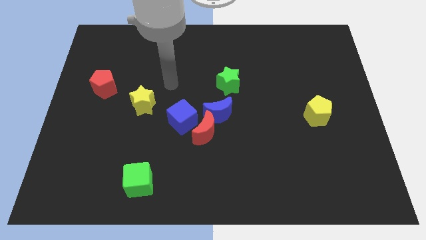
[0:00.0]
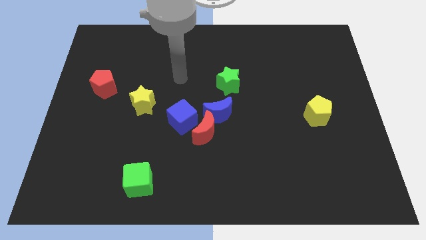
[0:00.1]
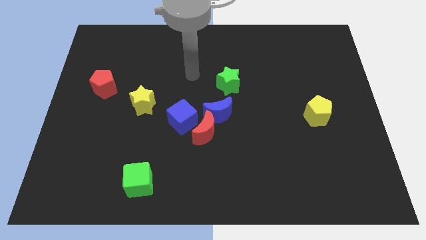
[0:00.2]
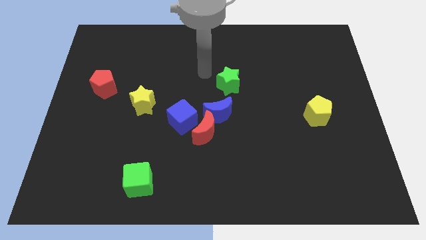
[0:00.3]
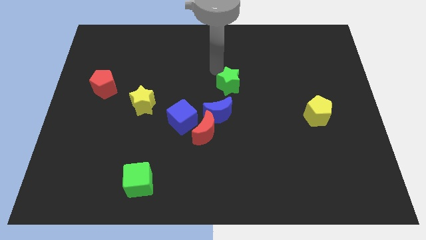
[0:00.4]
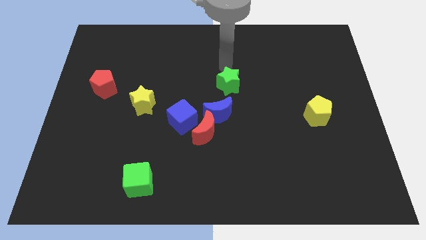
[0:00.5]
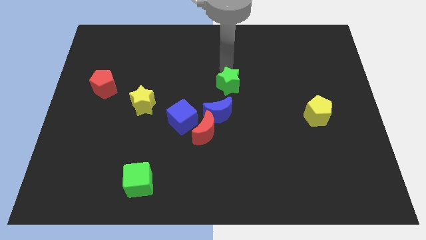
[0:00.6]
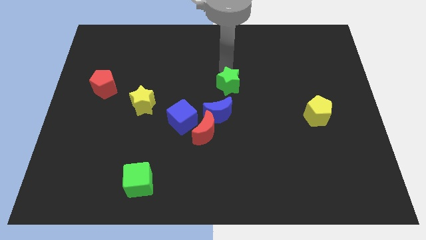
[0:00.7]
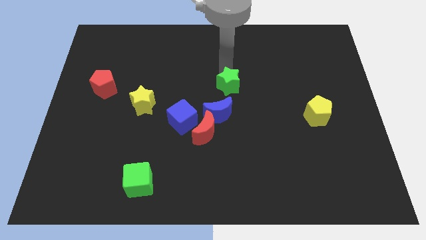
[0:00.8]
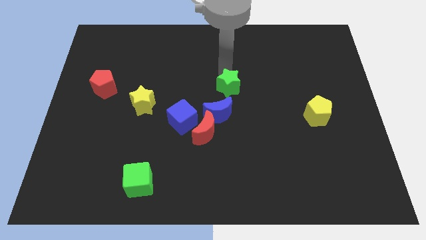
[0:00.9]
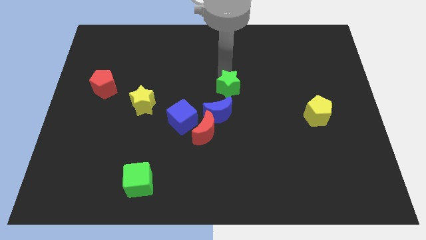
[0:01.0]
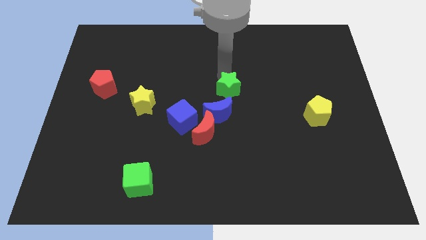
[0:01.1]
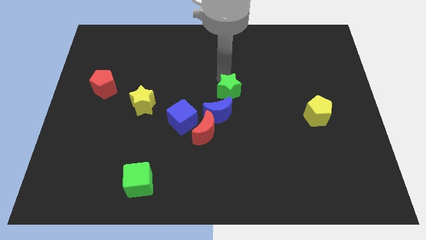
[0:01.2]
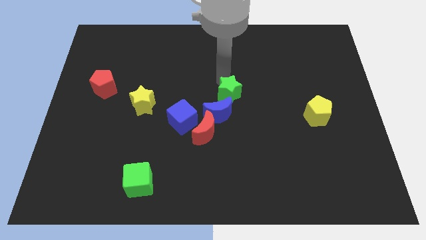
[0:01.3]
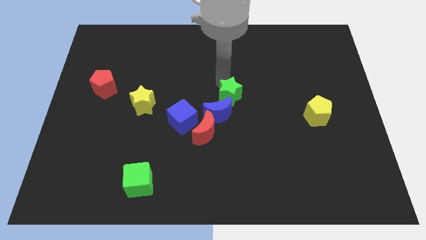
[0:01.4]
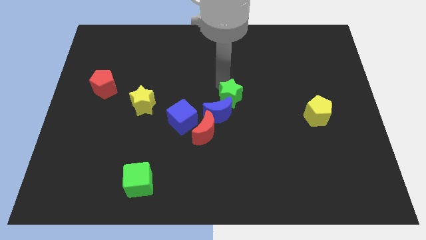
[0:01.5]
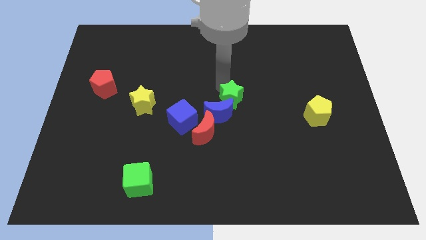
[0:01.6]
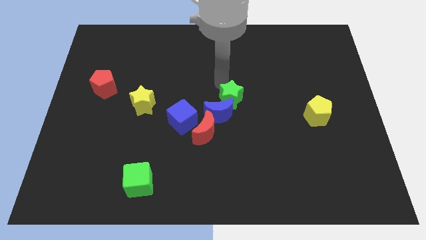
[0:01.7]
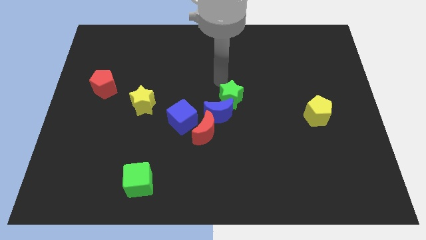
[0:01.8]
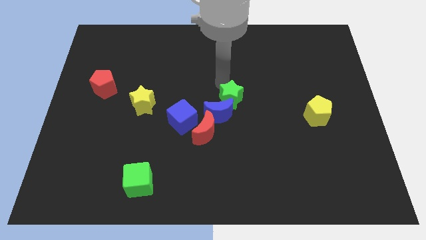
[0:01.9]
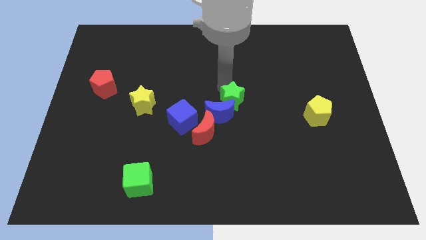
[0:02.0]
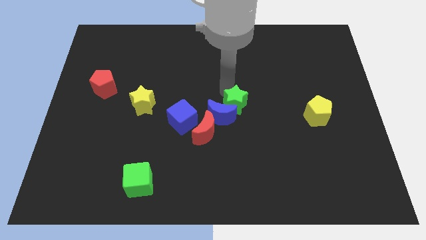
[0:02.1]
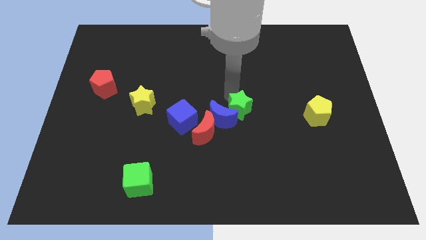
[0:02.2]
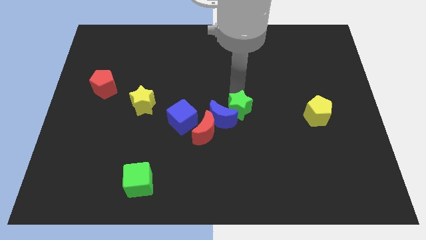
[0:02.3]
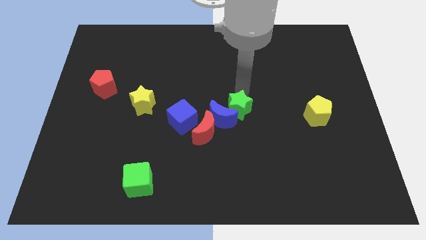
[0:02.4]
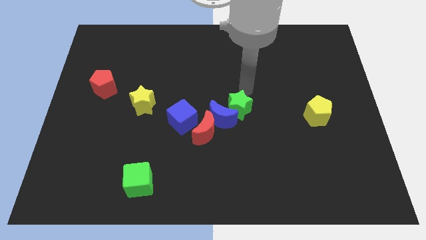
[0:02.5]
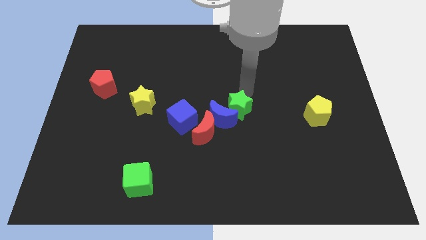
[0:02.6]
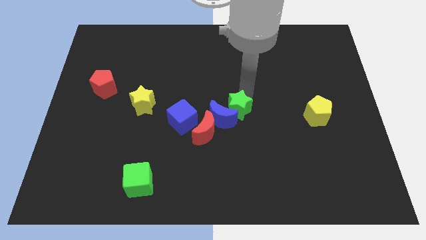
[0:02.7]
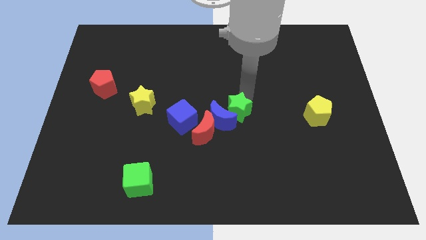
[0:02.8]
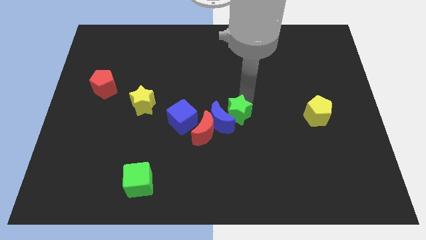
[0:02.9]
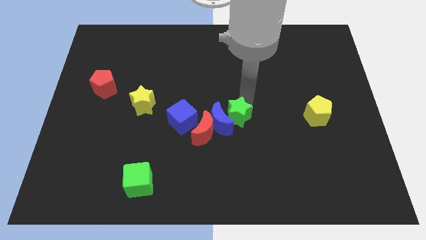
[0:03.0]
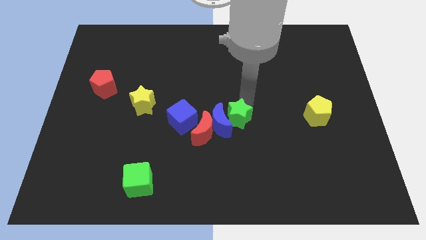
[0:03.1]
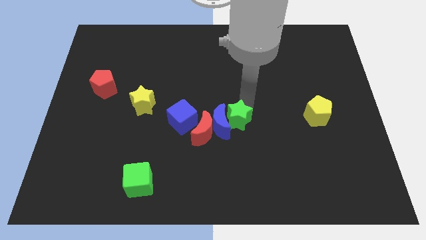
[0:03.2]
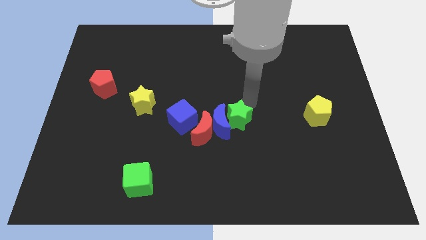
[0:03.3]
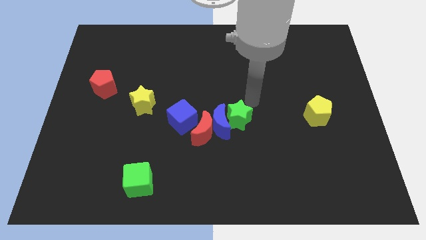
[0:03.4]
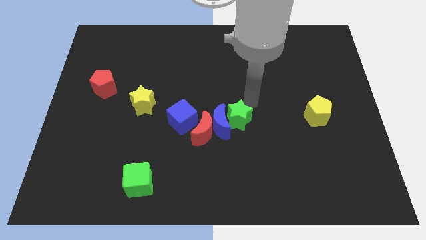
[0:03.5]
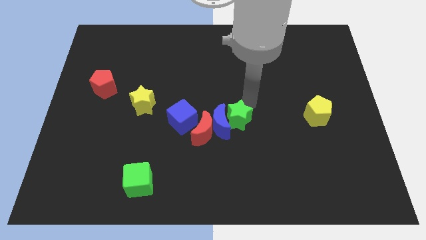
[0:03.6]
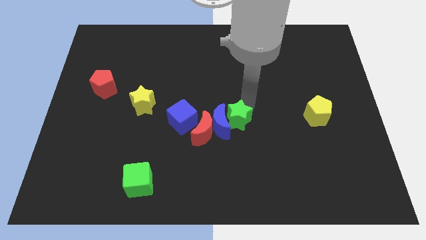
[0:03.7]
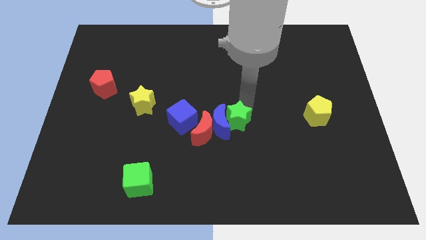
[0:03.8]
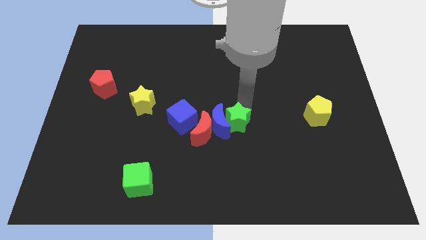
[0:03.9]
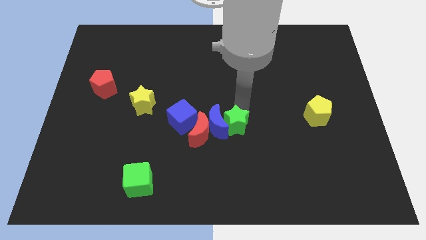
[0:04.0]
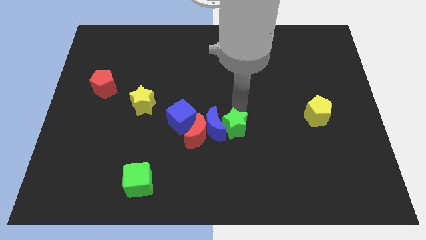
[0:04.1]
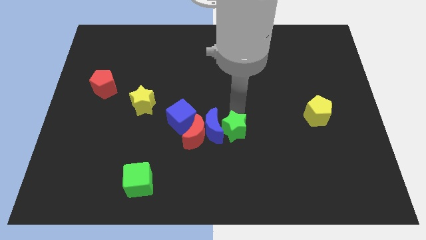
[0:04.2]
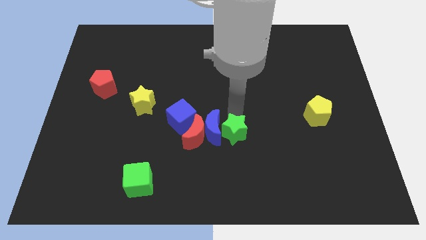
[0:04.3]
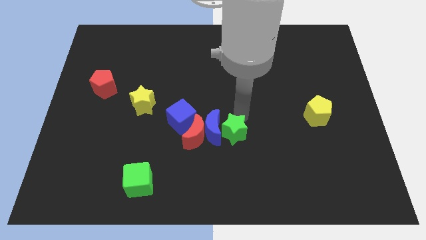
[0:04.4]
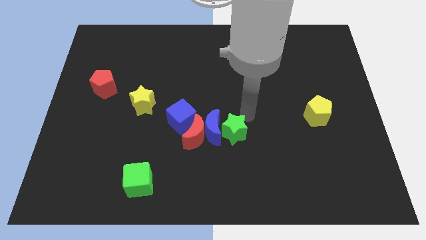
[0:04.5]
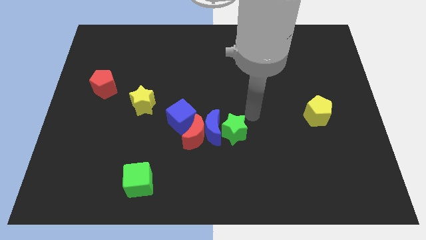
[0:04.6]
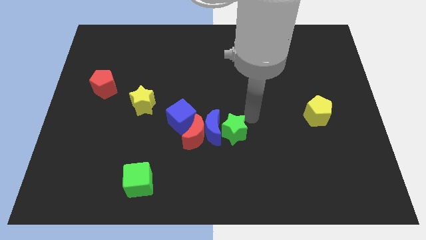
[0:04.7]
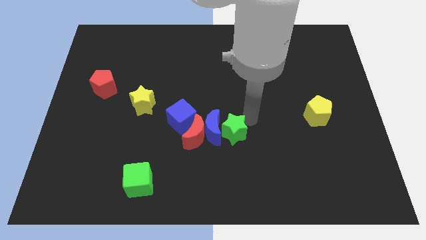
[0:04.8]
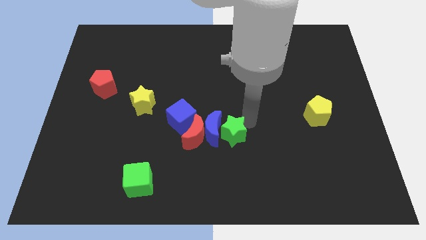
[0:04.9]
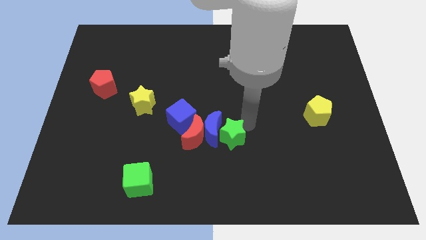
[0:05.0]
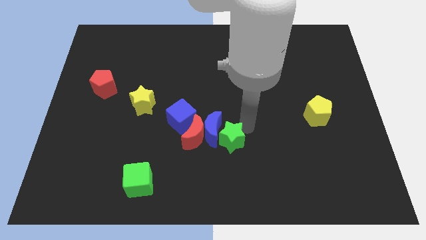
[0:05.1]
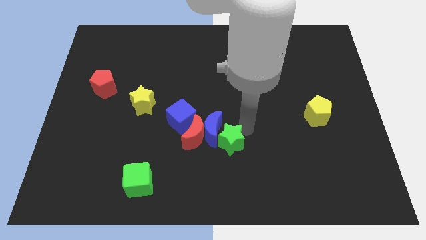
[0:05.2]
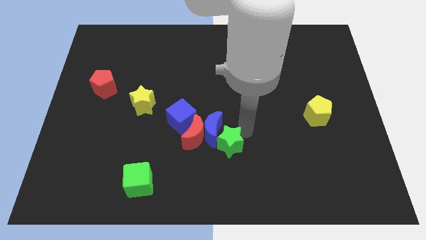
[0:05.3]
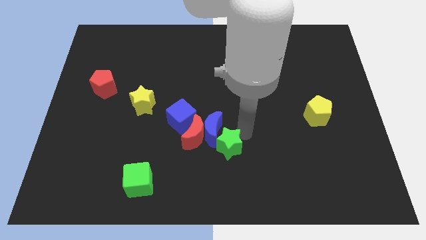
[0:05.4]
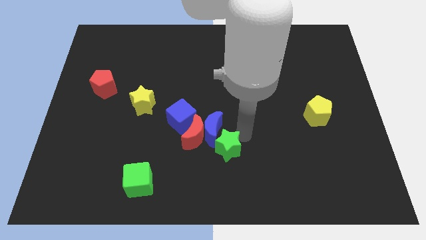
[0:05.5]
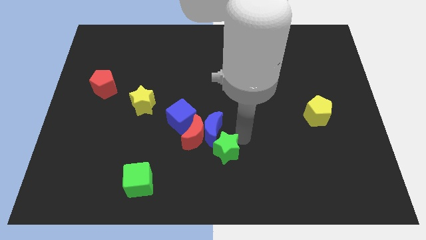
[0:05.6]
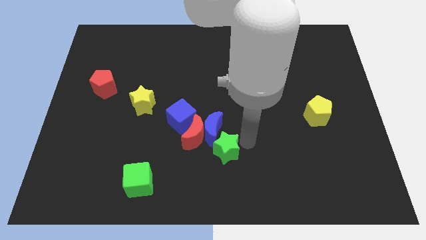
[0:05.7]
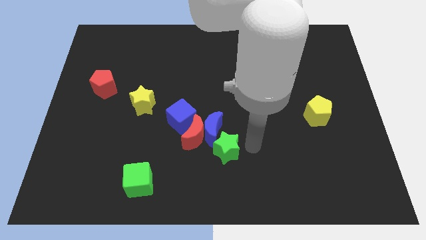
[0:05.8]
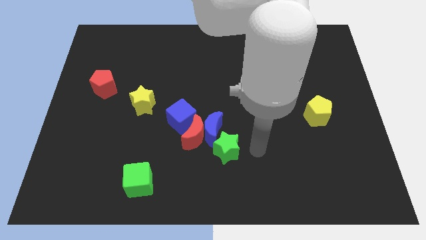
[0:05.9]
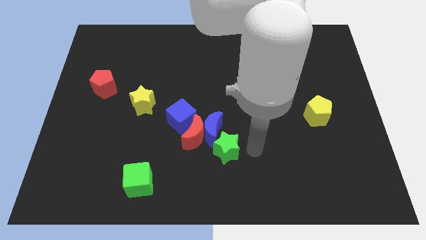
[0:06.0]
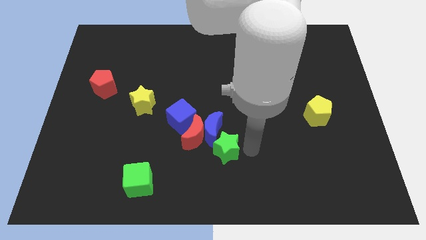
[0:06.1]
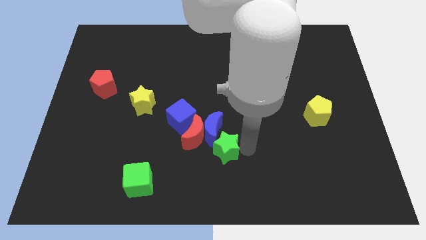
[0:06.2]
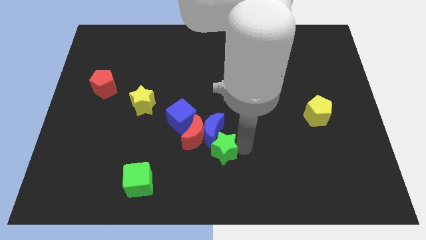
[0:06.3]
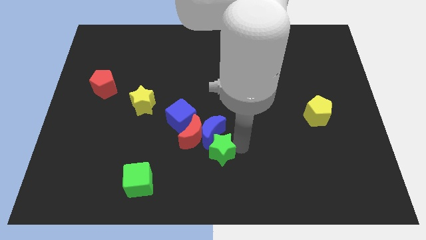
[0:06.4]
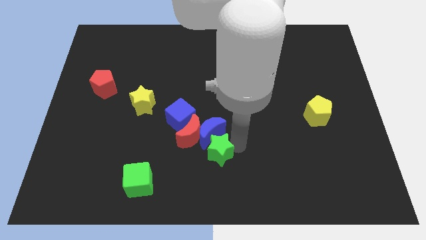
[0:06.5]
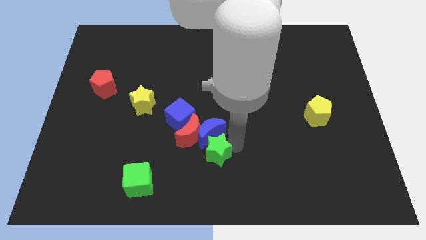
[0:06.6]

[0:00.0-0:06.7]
move the green star to the bottom left of the blue moon

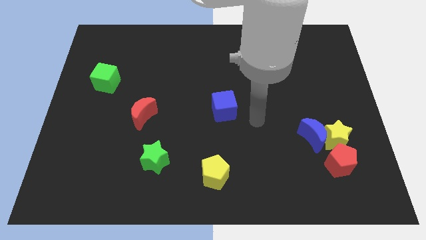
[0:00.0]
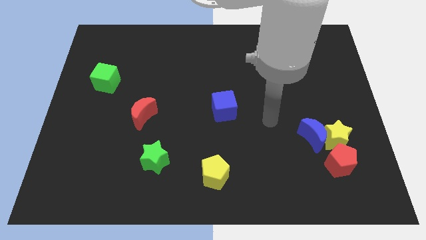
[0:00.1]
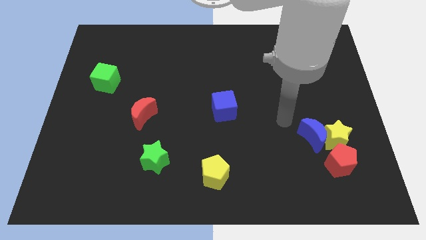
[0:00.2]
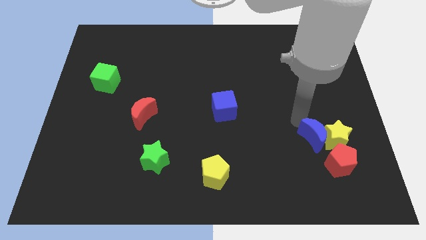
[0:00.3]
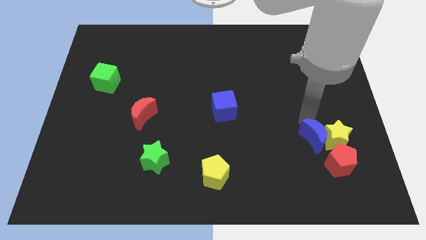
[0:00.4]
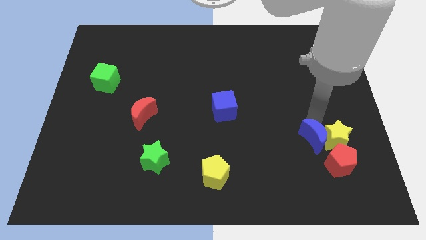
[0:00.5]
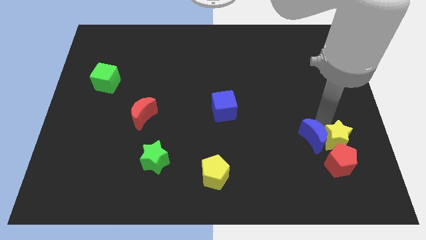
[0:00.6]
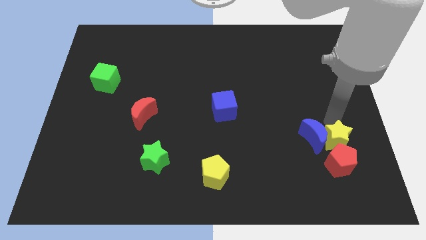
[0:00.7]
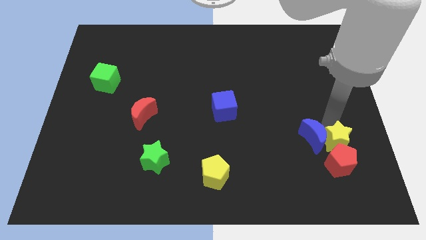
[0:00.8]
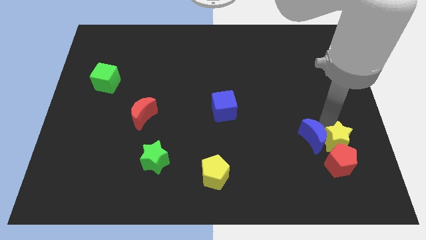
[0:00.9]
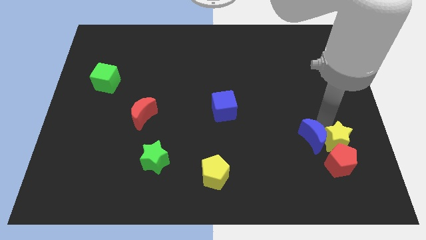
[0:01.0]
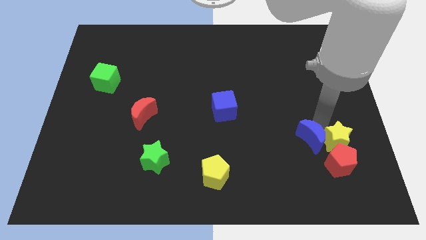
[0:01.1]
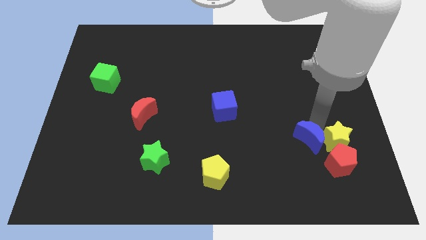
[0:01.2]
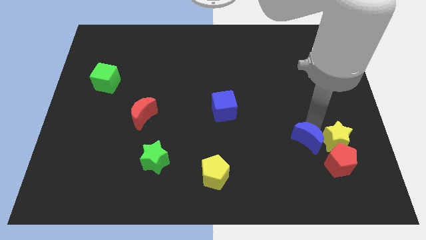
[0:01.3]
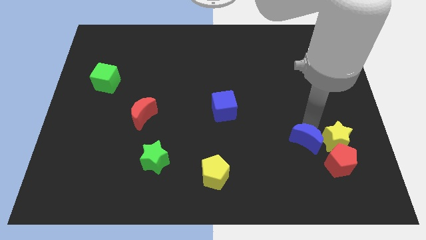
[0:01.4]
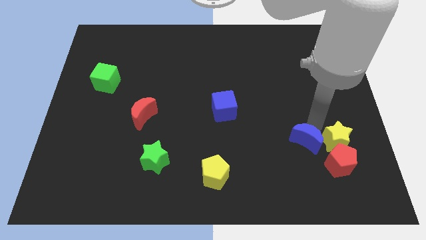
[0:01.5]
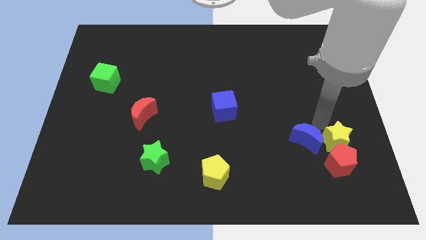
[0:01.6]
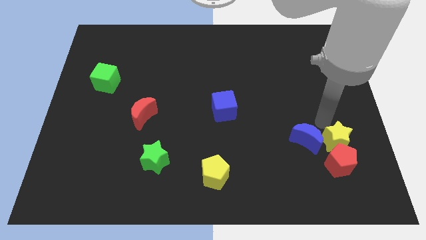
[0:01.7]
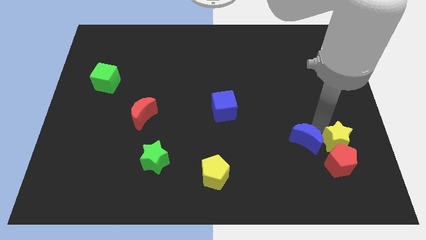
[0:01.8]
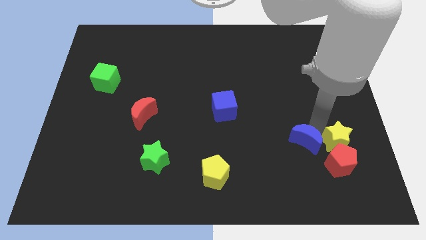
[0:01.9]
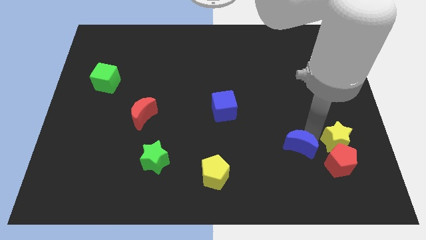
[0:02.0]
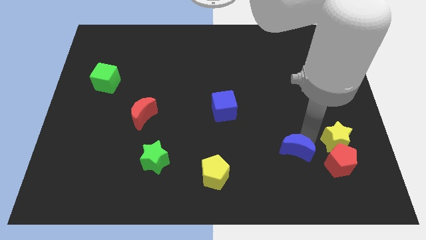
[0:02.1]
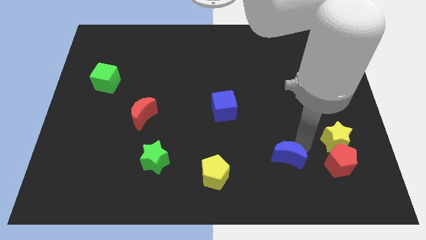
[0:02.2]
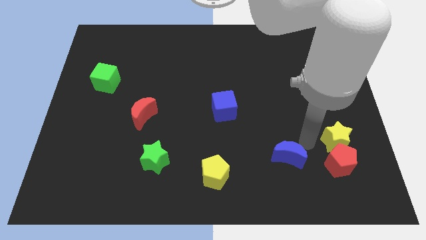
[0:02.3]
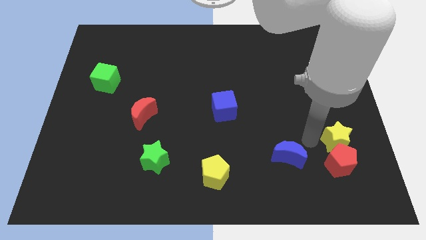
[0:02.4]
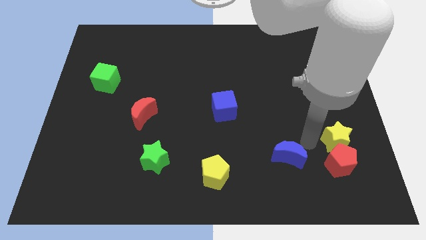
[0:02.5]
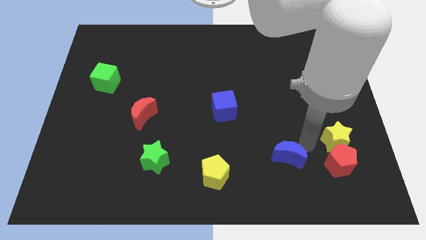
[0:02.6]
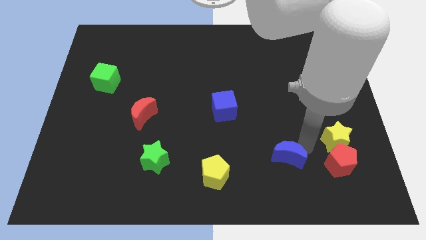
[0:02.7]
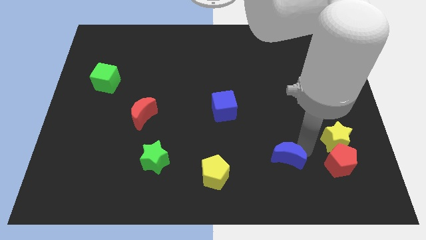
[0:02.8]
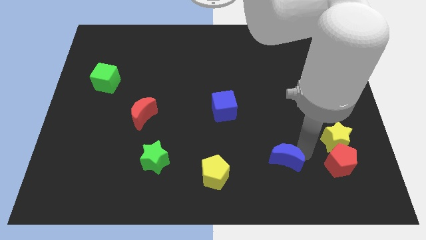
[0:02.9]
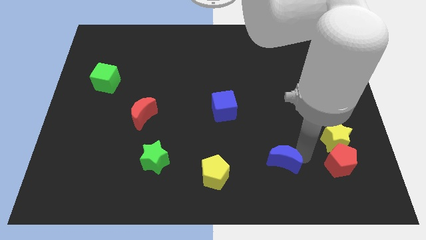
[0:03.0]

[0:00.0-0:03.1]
move the blue moon to the right of the yellow pentagon
